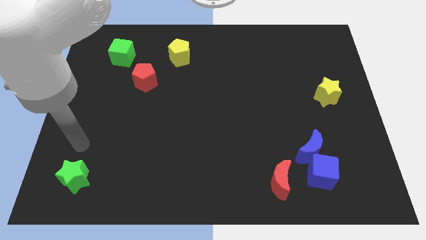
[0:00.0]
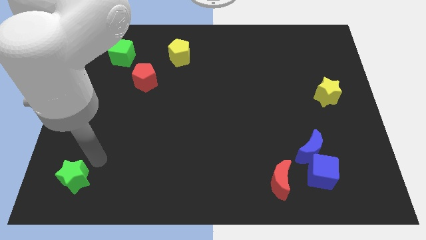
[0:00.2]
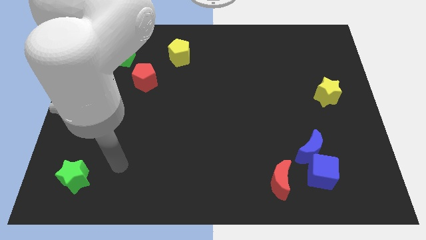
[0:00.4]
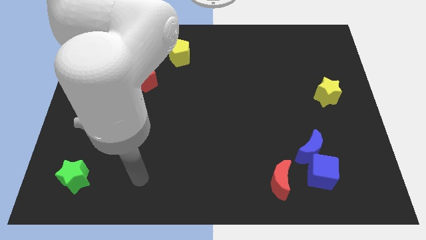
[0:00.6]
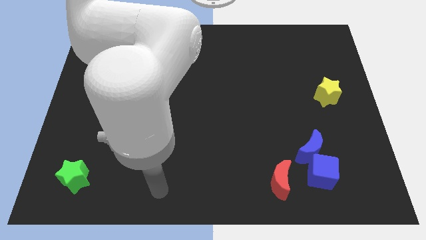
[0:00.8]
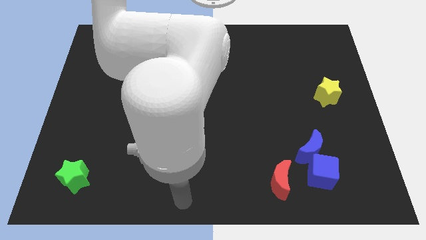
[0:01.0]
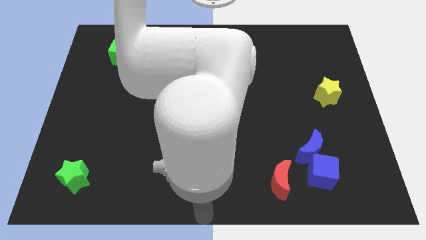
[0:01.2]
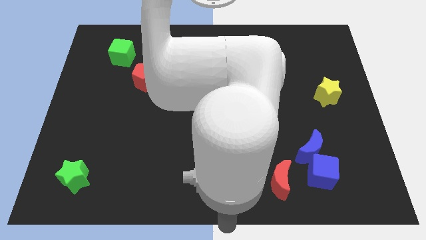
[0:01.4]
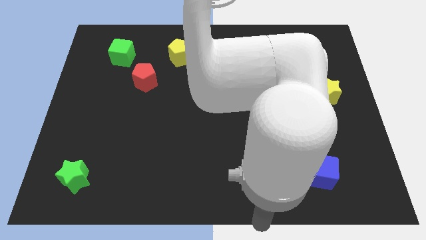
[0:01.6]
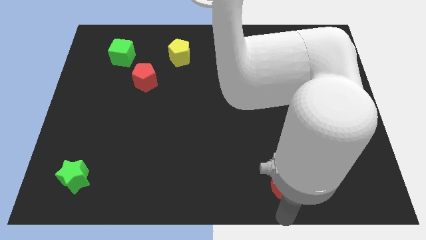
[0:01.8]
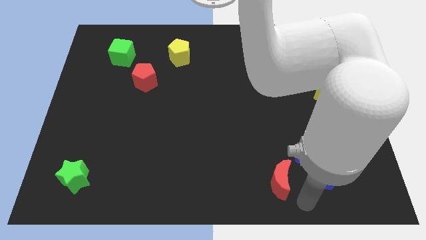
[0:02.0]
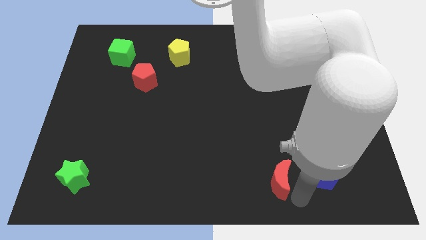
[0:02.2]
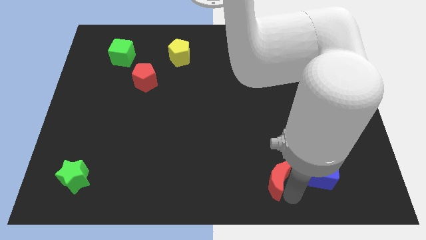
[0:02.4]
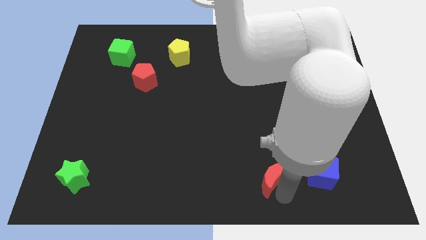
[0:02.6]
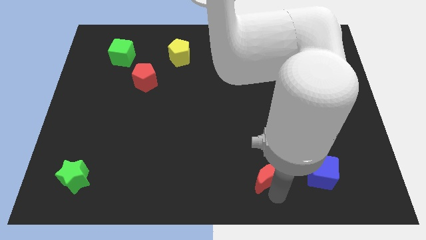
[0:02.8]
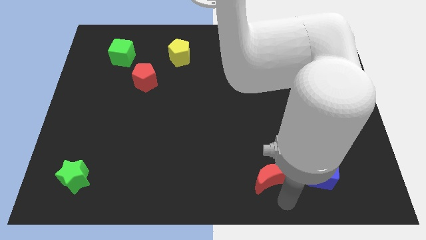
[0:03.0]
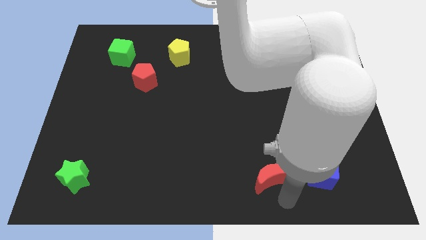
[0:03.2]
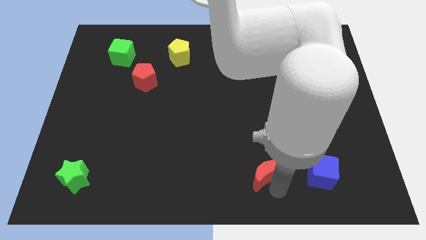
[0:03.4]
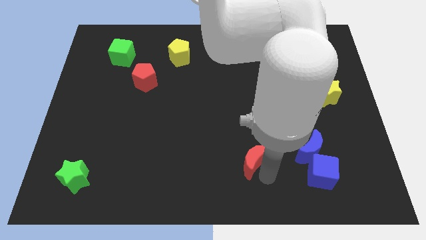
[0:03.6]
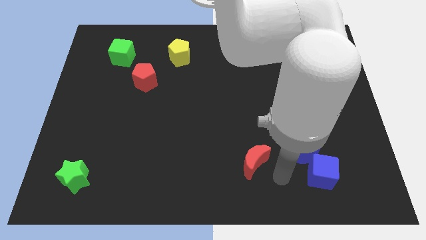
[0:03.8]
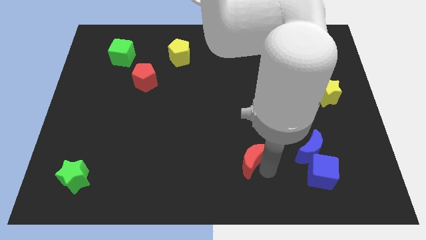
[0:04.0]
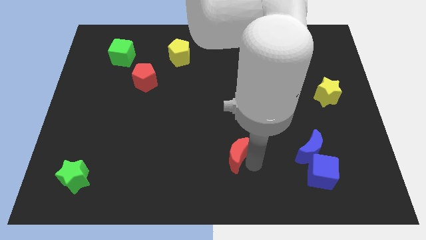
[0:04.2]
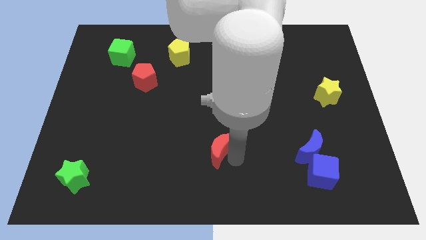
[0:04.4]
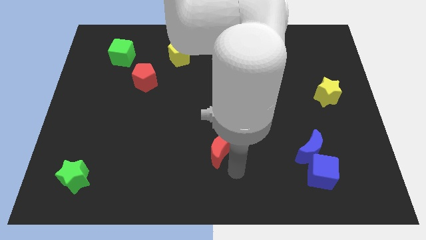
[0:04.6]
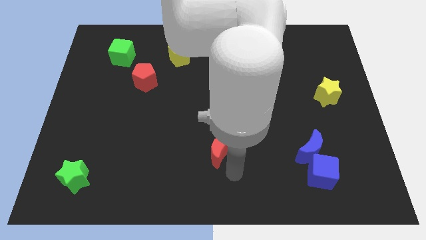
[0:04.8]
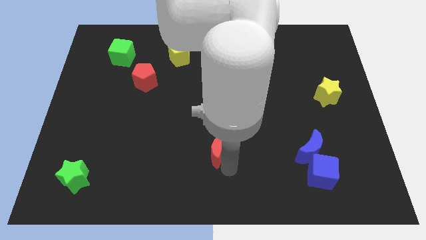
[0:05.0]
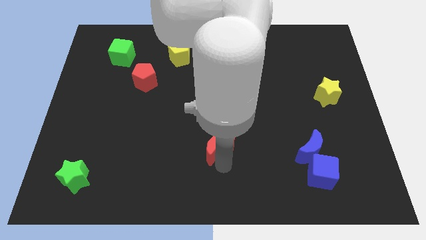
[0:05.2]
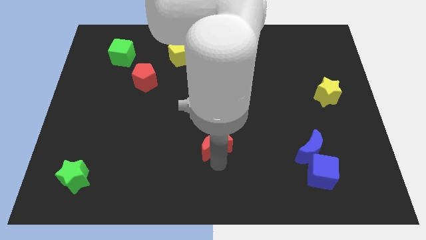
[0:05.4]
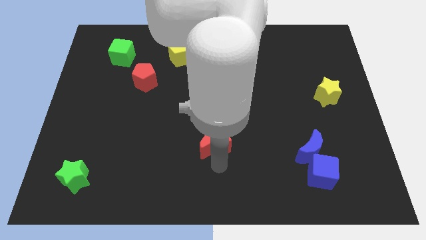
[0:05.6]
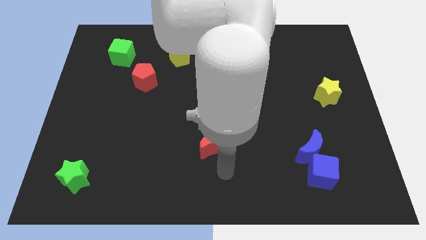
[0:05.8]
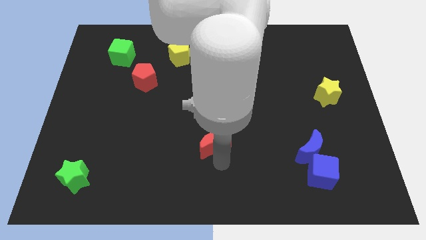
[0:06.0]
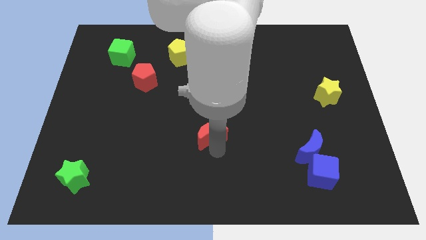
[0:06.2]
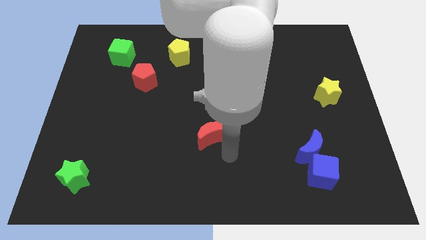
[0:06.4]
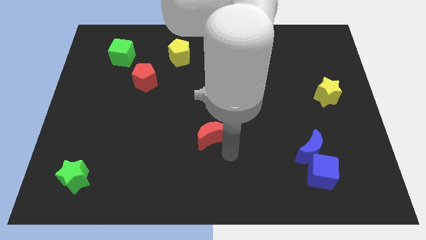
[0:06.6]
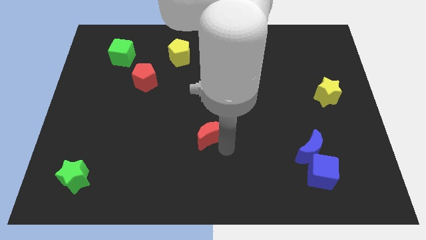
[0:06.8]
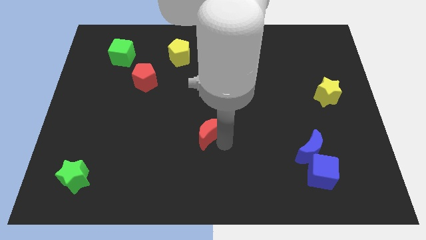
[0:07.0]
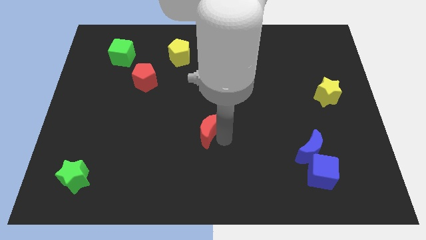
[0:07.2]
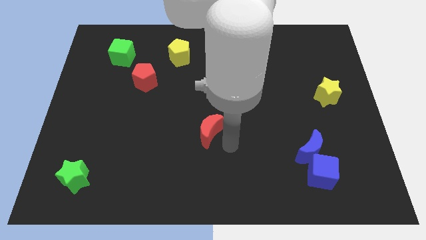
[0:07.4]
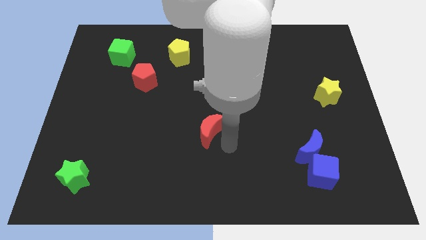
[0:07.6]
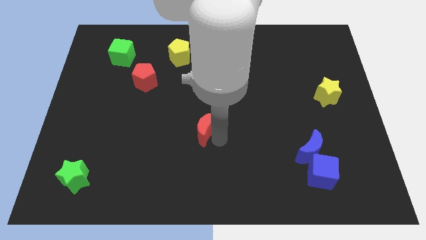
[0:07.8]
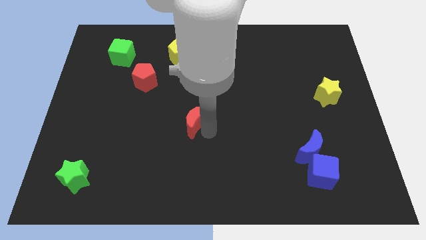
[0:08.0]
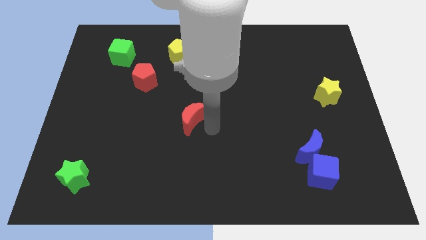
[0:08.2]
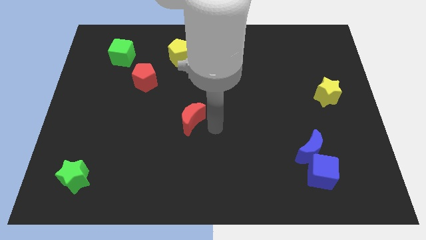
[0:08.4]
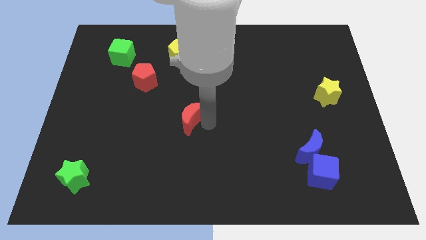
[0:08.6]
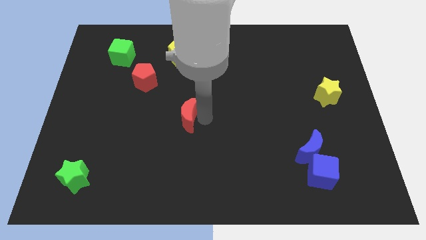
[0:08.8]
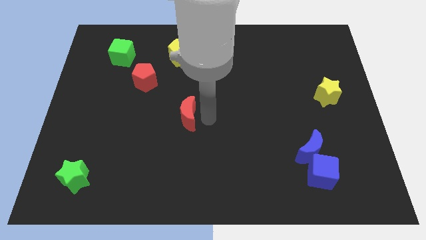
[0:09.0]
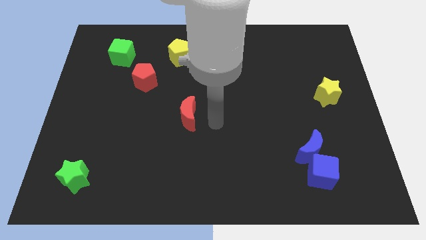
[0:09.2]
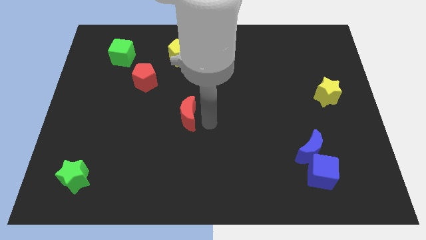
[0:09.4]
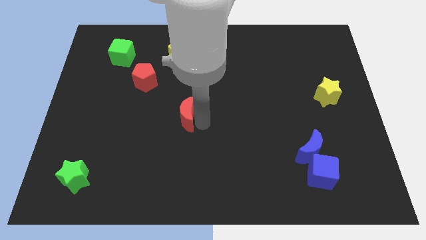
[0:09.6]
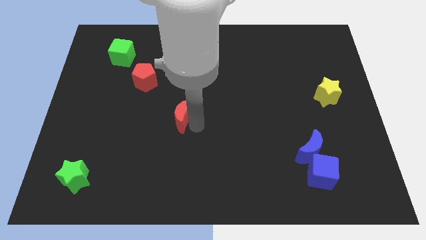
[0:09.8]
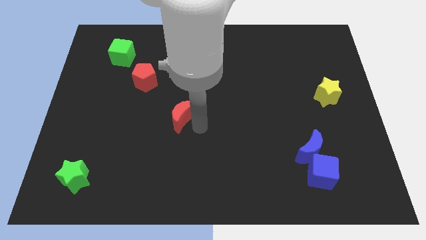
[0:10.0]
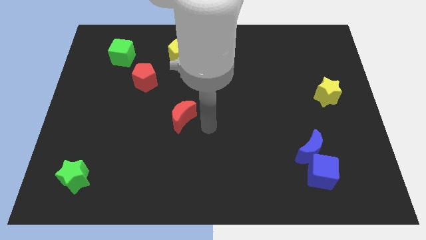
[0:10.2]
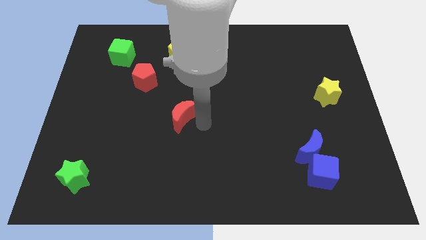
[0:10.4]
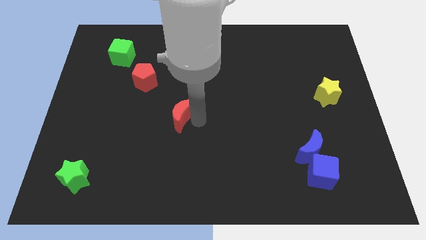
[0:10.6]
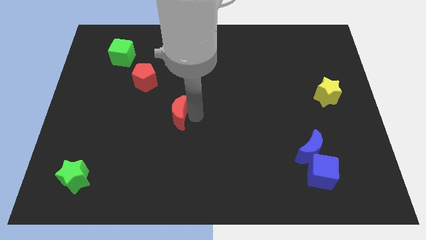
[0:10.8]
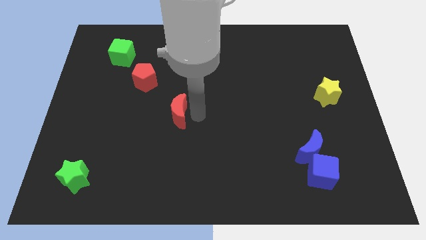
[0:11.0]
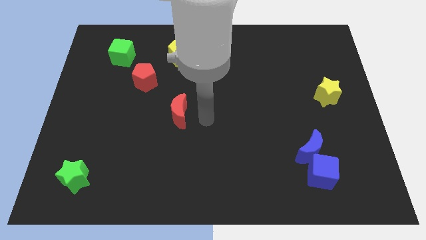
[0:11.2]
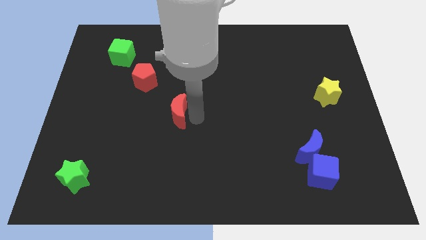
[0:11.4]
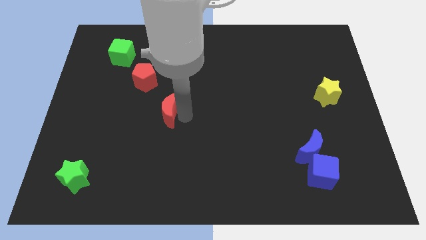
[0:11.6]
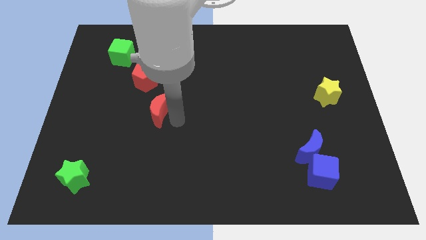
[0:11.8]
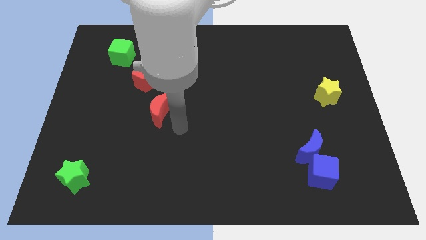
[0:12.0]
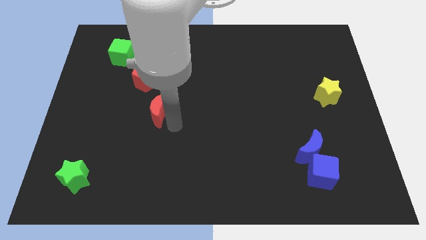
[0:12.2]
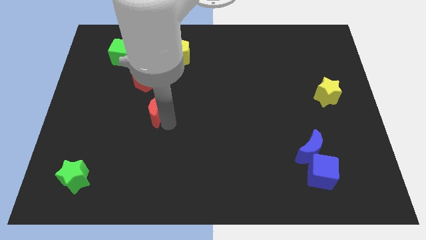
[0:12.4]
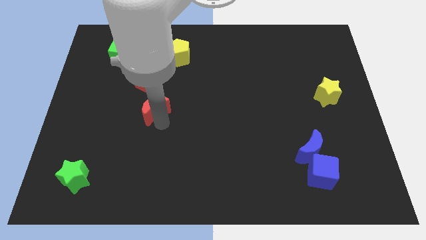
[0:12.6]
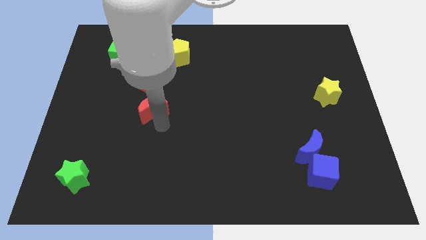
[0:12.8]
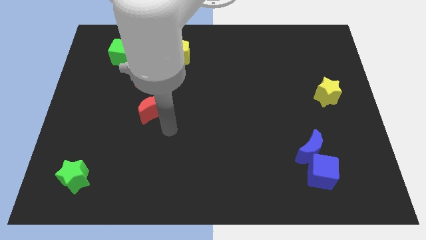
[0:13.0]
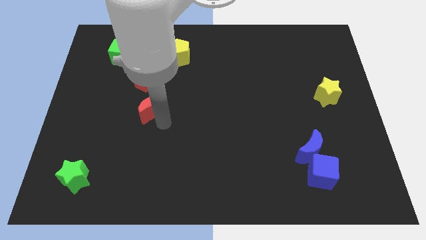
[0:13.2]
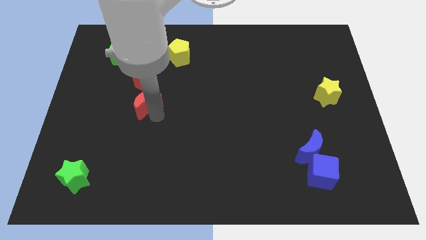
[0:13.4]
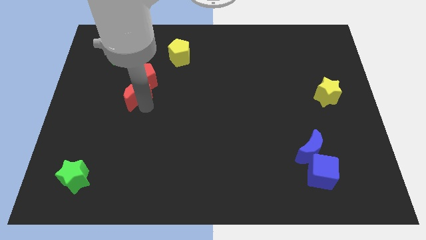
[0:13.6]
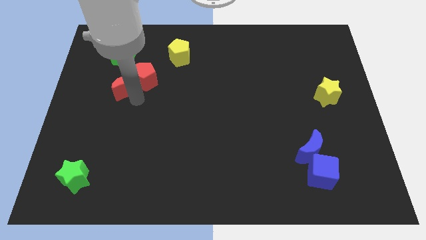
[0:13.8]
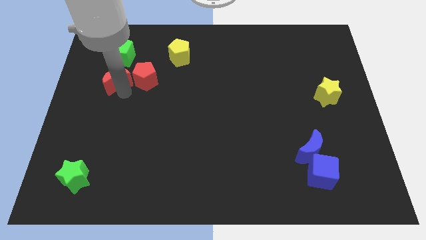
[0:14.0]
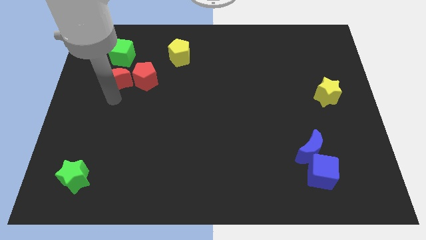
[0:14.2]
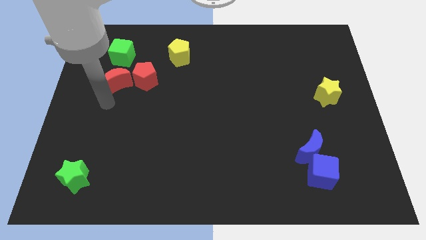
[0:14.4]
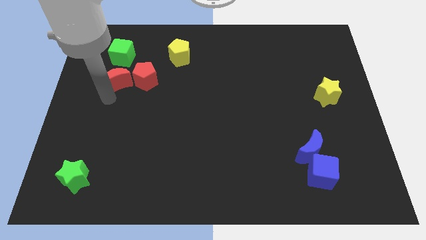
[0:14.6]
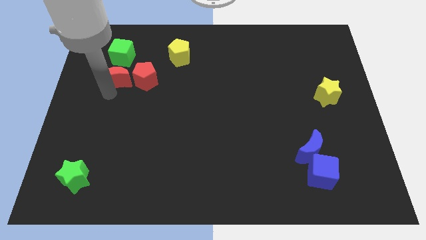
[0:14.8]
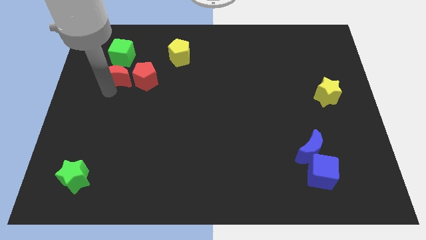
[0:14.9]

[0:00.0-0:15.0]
push the red moon to the top left of the red pentagon
